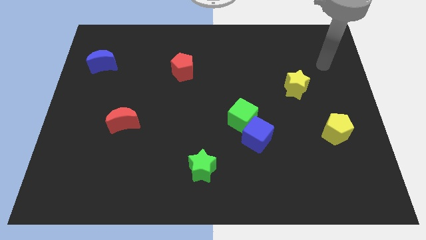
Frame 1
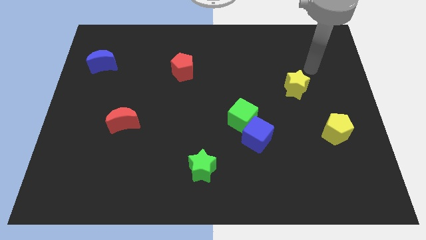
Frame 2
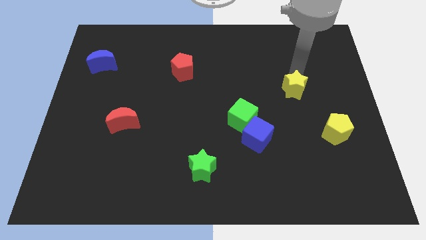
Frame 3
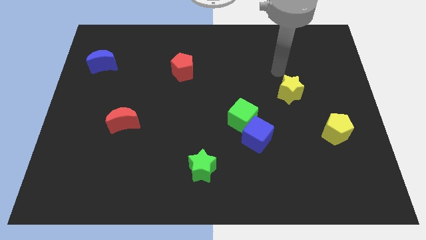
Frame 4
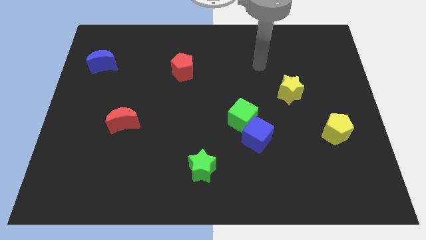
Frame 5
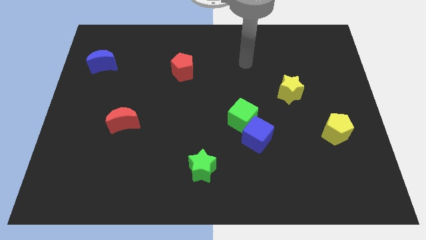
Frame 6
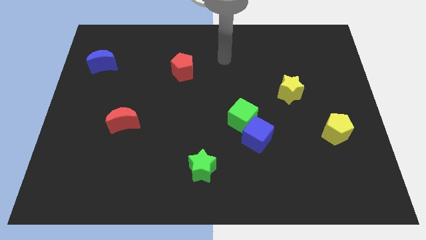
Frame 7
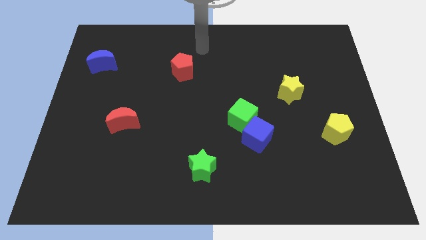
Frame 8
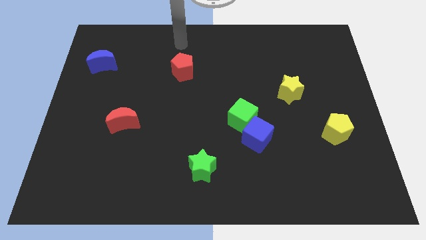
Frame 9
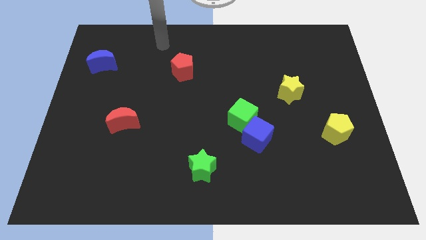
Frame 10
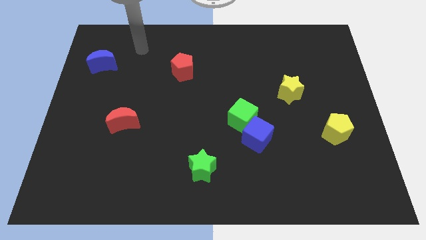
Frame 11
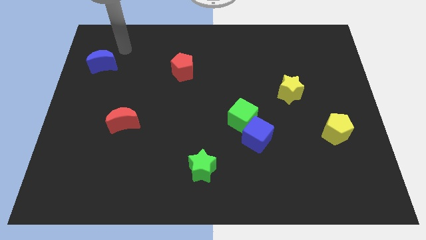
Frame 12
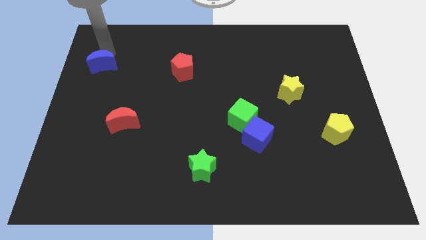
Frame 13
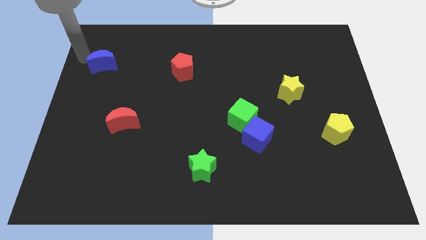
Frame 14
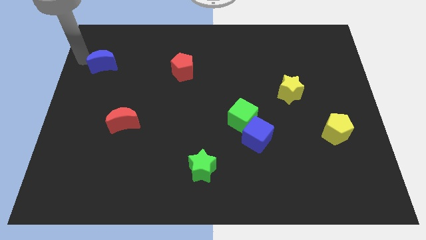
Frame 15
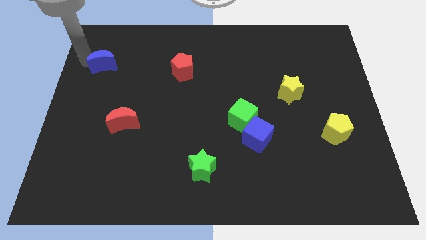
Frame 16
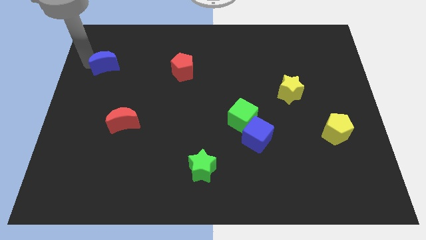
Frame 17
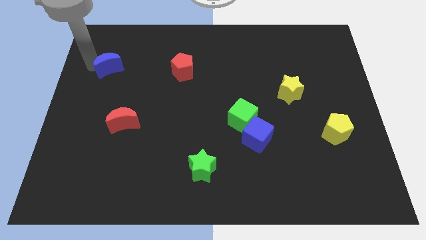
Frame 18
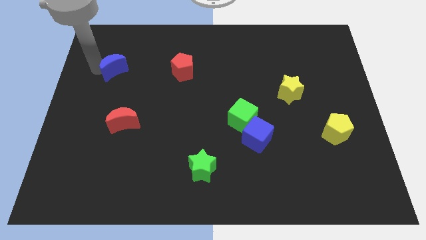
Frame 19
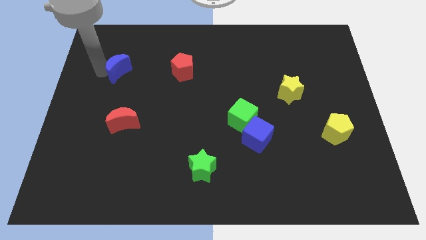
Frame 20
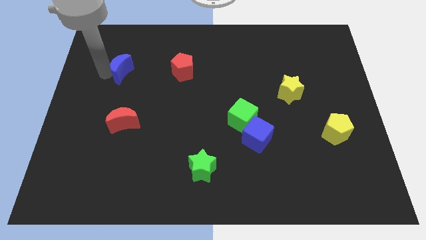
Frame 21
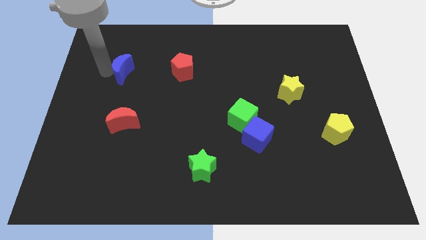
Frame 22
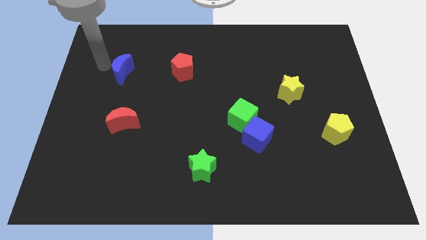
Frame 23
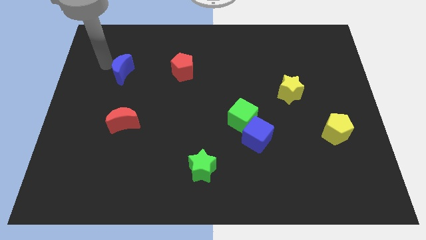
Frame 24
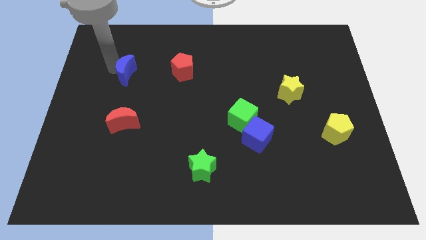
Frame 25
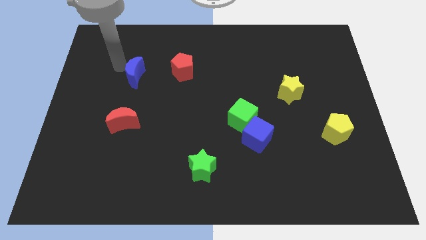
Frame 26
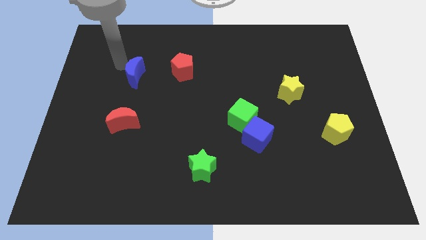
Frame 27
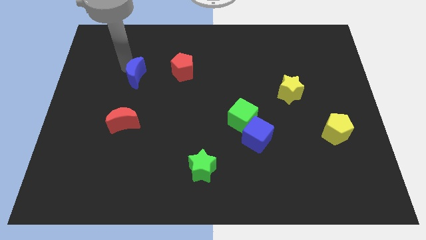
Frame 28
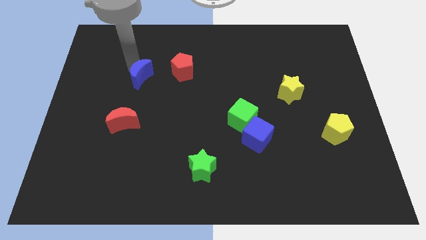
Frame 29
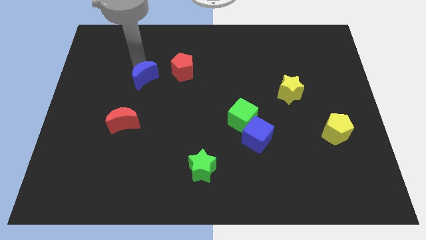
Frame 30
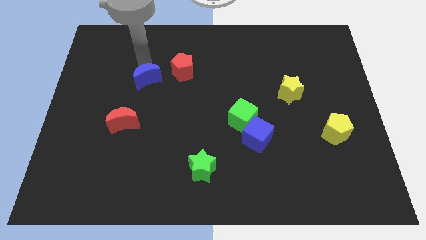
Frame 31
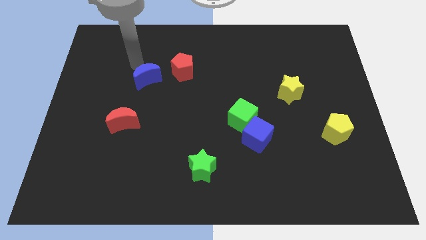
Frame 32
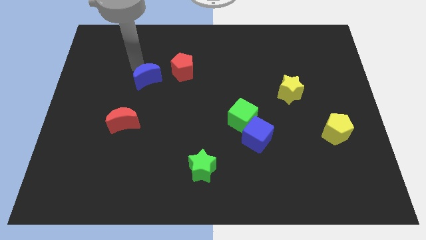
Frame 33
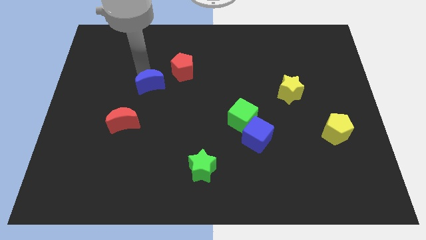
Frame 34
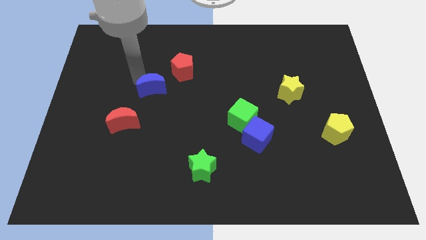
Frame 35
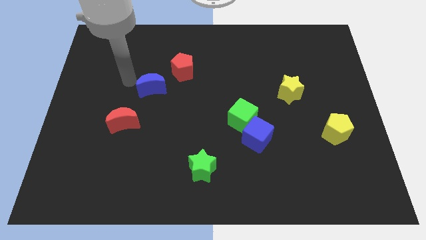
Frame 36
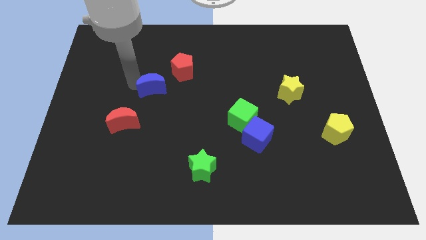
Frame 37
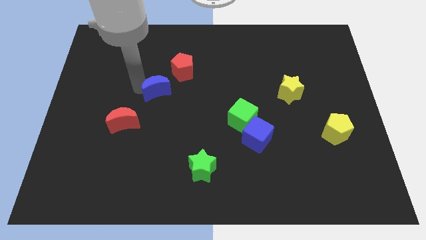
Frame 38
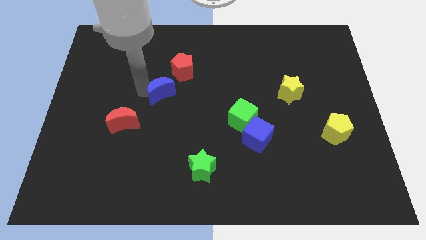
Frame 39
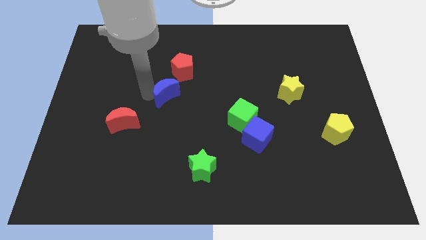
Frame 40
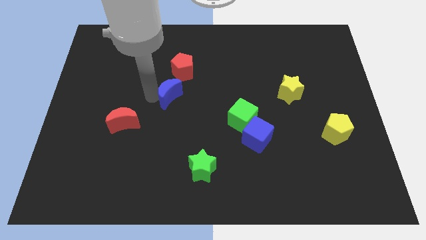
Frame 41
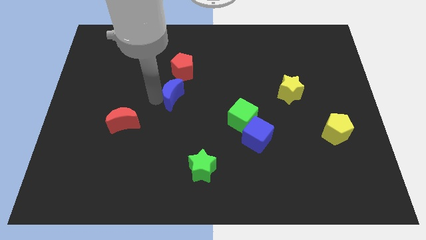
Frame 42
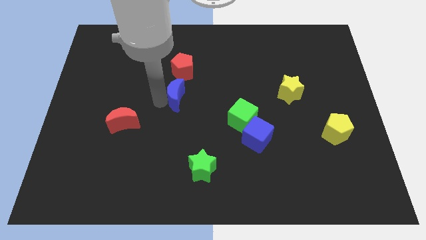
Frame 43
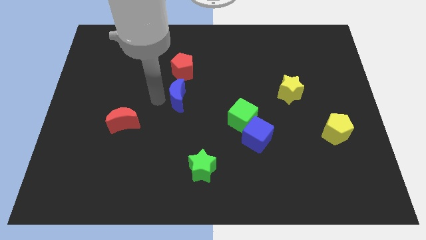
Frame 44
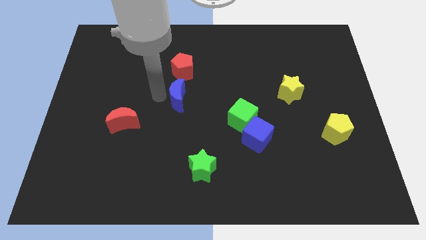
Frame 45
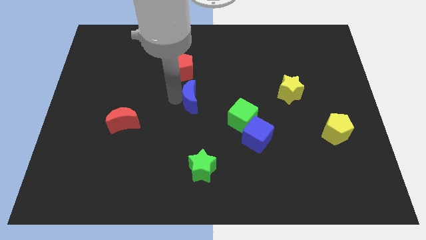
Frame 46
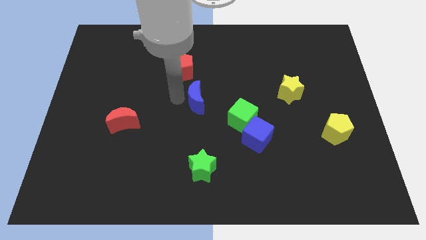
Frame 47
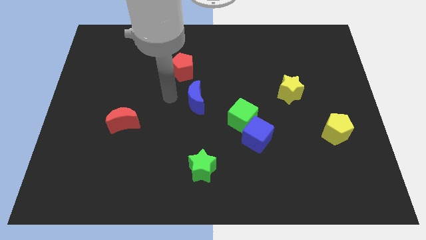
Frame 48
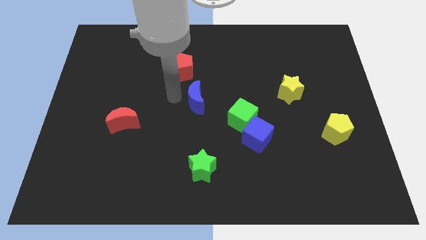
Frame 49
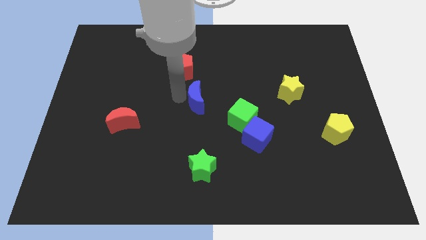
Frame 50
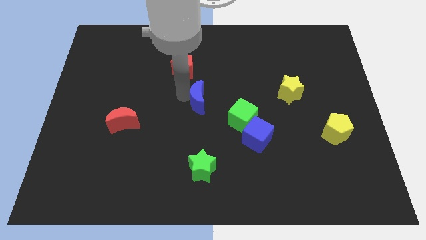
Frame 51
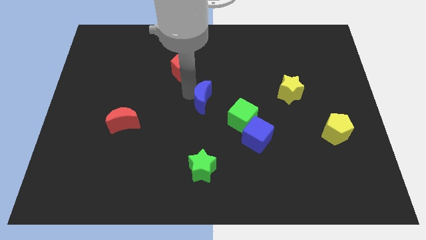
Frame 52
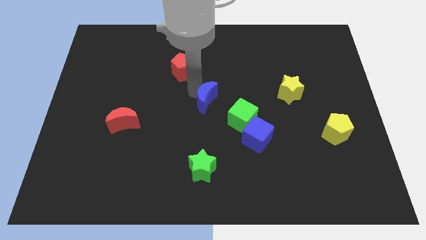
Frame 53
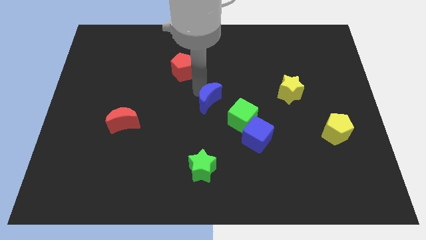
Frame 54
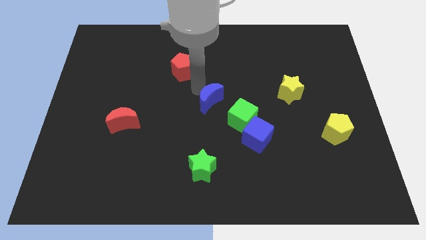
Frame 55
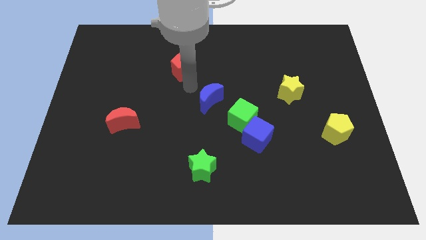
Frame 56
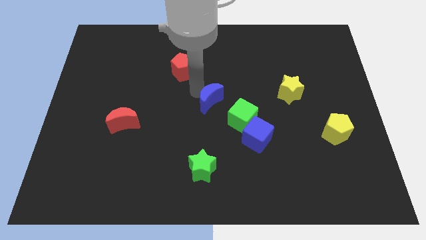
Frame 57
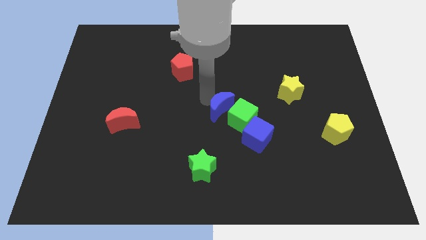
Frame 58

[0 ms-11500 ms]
push the blue moon next to the green cube

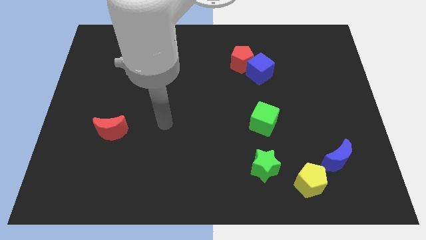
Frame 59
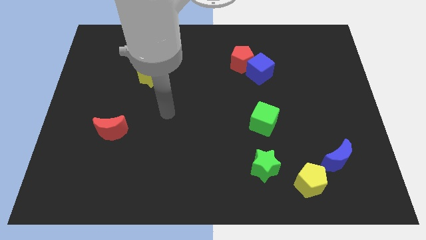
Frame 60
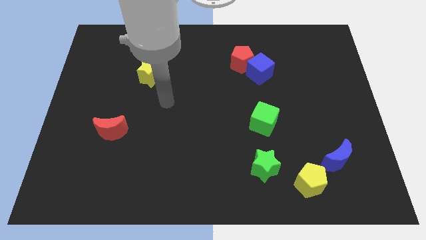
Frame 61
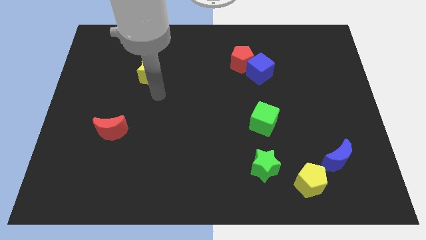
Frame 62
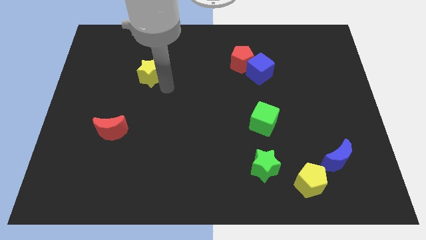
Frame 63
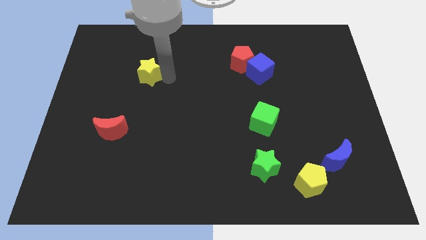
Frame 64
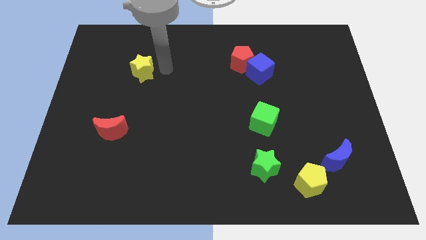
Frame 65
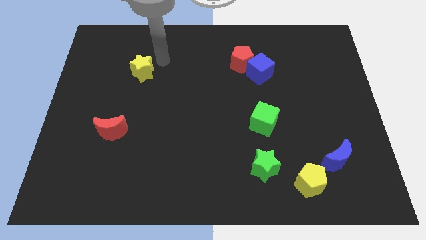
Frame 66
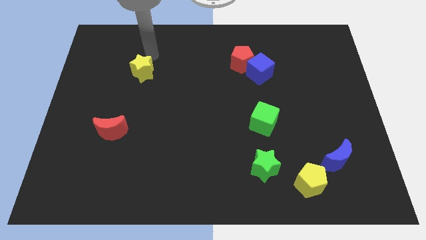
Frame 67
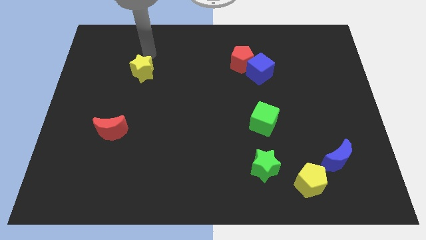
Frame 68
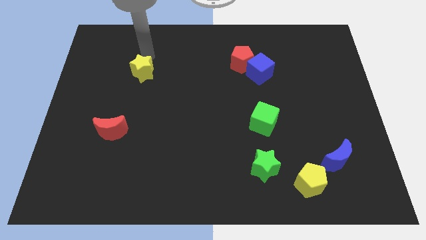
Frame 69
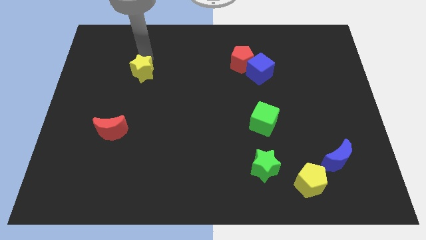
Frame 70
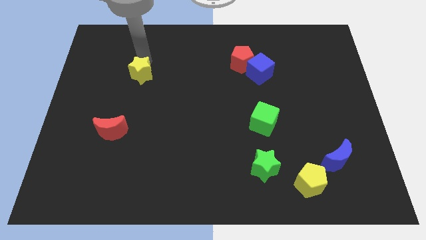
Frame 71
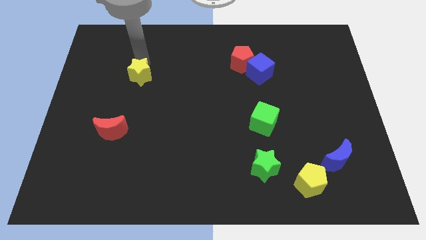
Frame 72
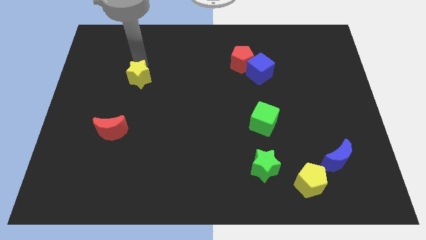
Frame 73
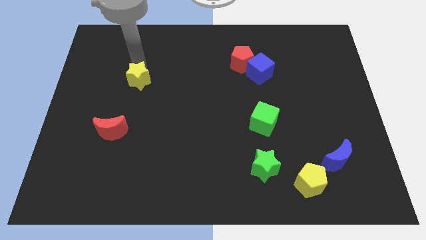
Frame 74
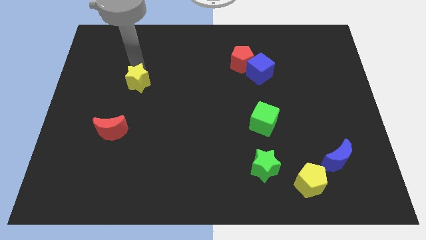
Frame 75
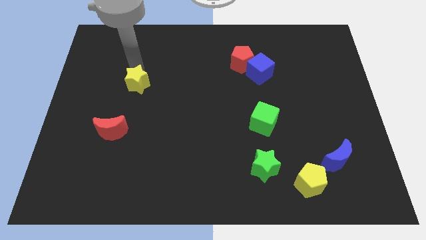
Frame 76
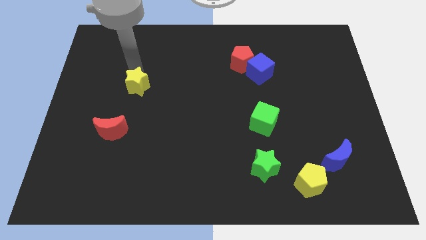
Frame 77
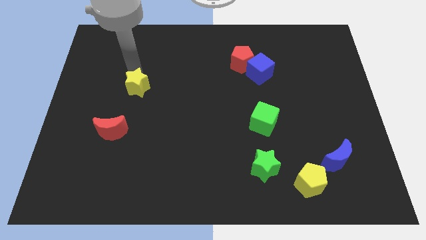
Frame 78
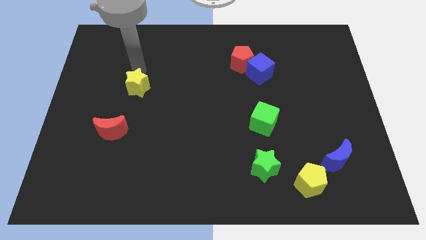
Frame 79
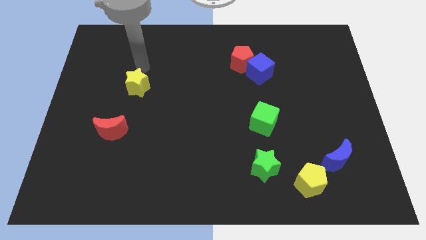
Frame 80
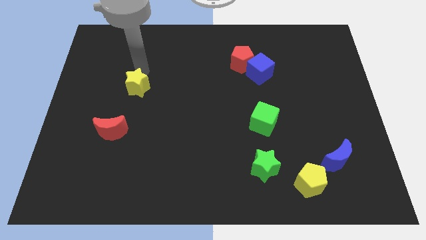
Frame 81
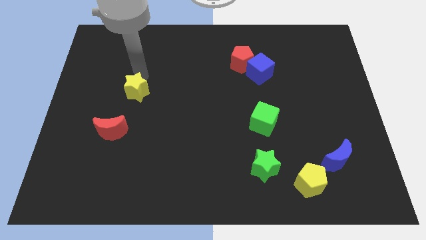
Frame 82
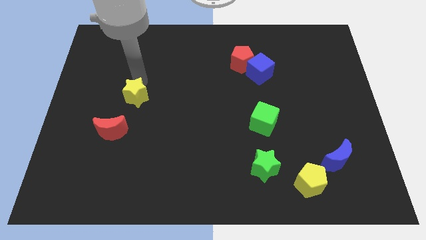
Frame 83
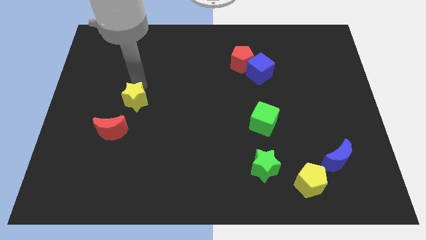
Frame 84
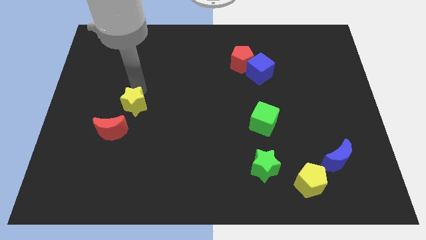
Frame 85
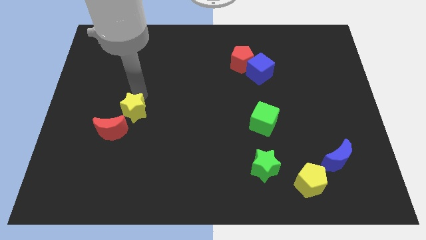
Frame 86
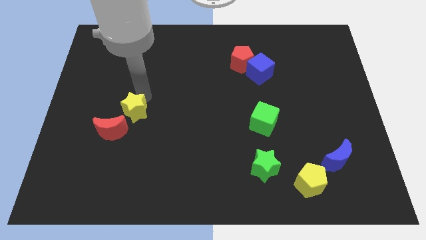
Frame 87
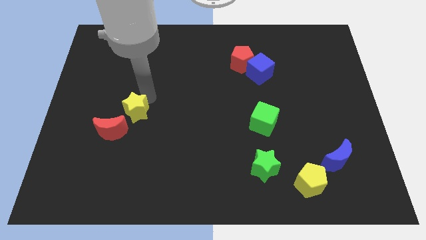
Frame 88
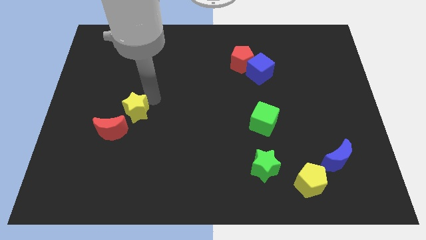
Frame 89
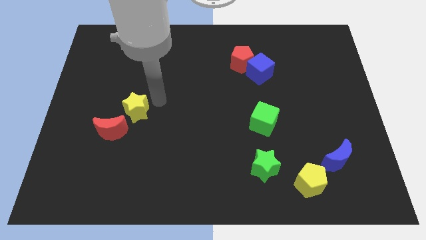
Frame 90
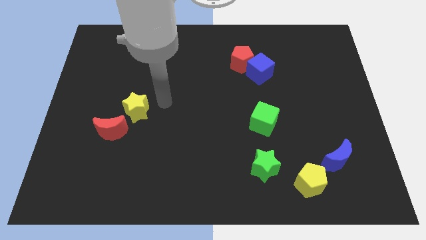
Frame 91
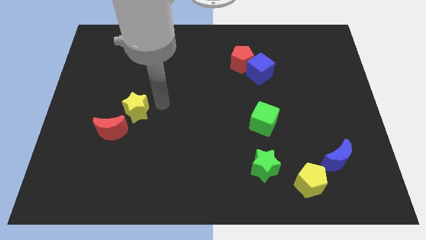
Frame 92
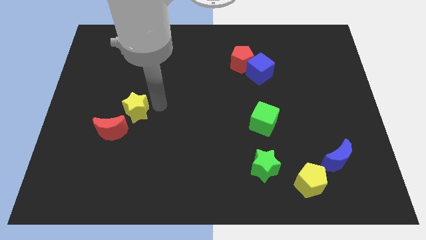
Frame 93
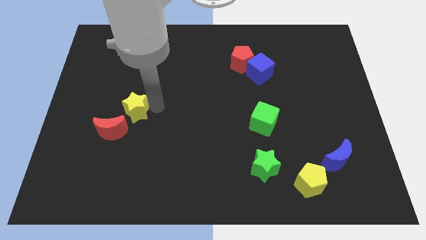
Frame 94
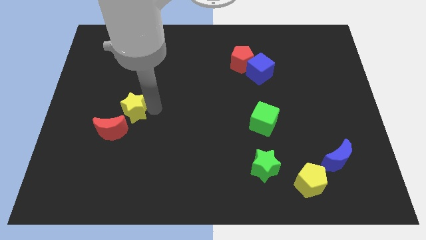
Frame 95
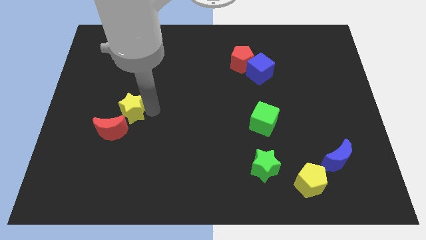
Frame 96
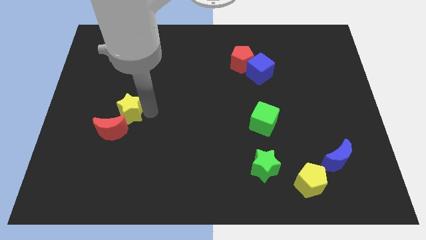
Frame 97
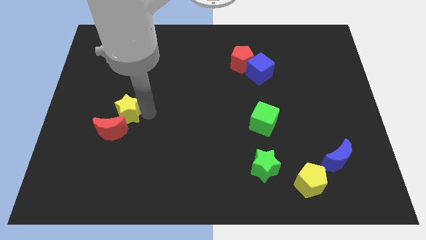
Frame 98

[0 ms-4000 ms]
push the yellow star close to the red moon
